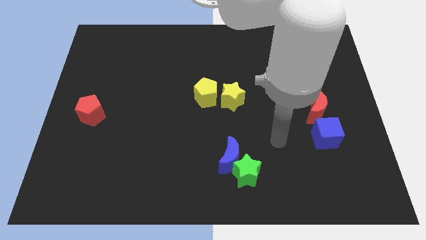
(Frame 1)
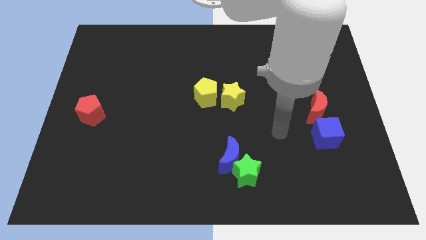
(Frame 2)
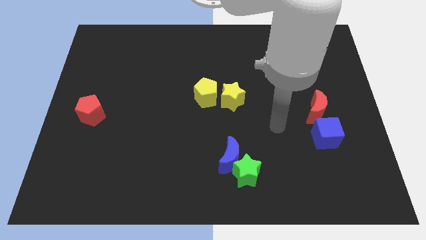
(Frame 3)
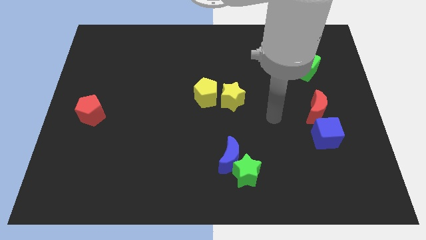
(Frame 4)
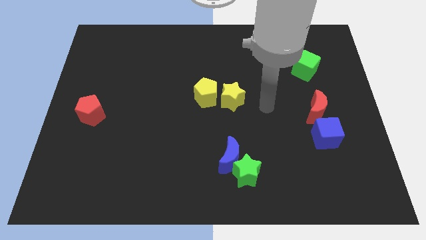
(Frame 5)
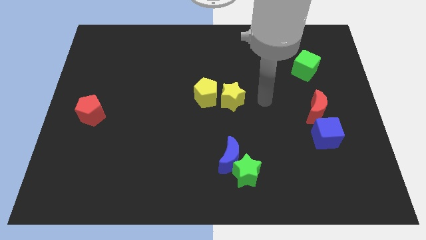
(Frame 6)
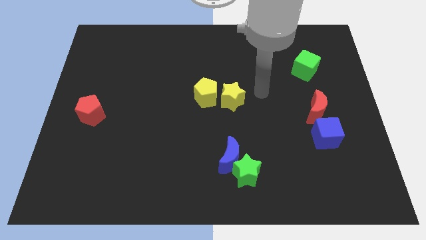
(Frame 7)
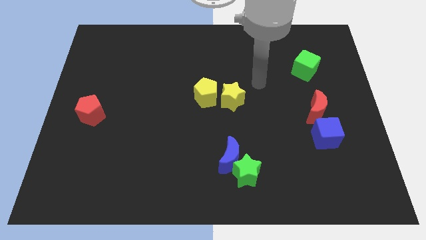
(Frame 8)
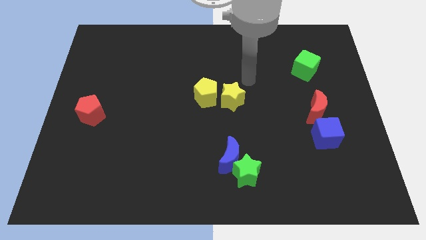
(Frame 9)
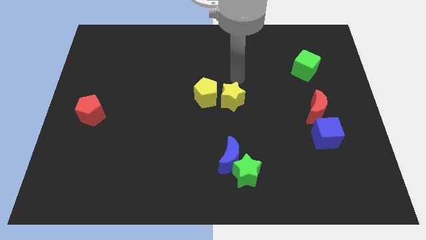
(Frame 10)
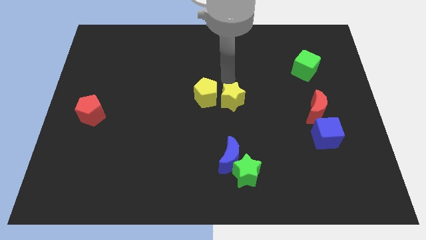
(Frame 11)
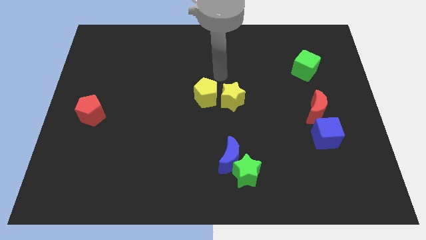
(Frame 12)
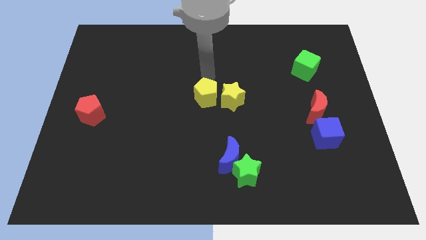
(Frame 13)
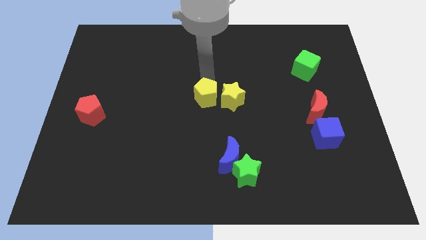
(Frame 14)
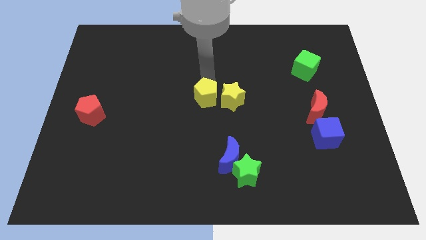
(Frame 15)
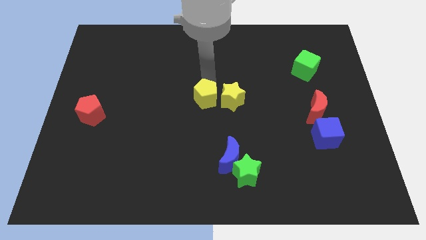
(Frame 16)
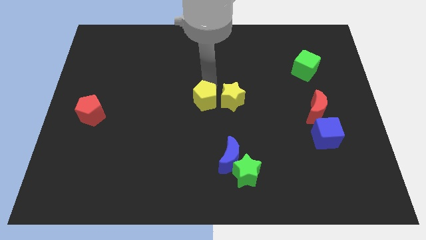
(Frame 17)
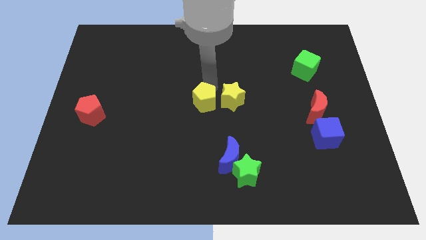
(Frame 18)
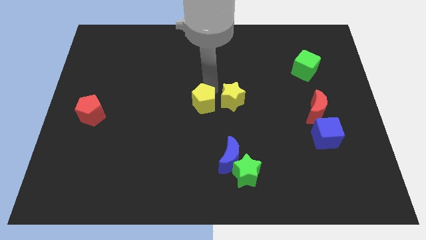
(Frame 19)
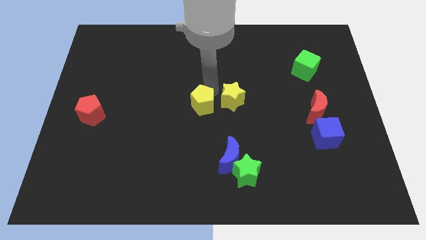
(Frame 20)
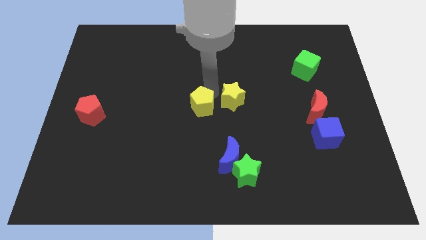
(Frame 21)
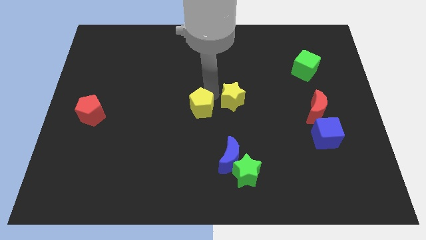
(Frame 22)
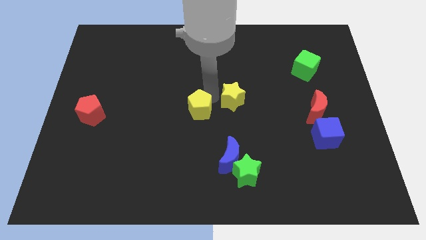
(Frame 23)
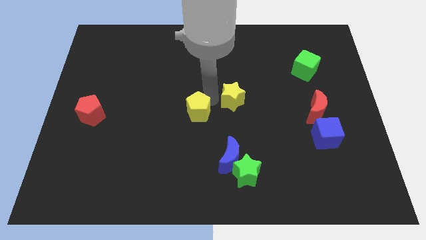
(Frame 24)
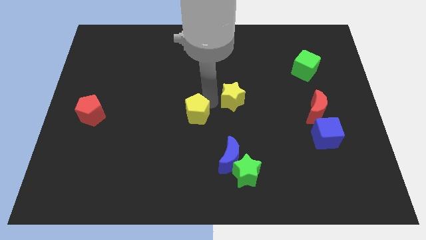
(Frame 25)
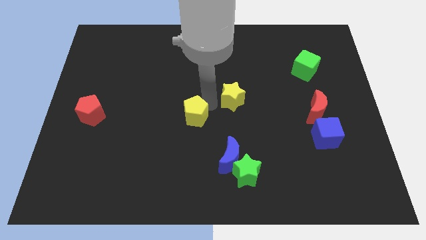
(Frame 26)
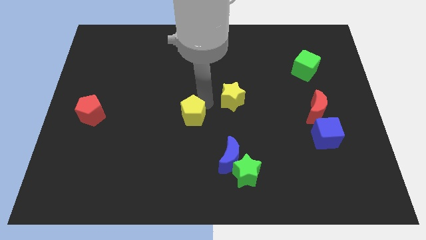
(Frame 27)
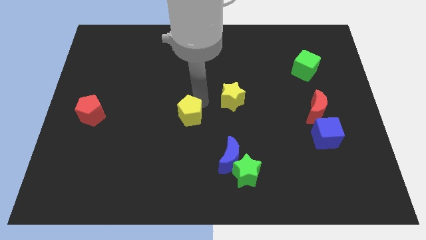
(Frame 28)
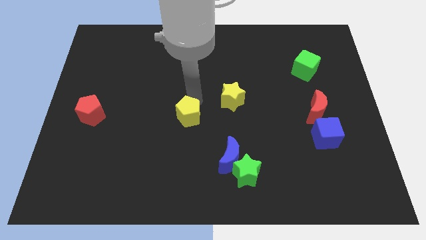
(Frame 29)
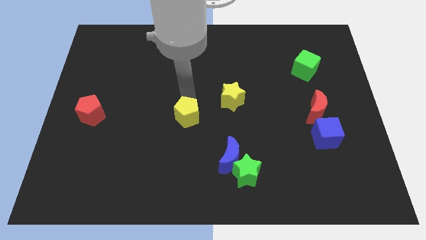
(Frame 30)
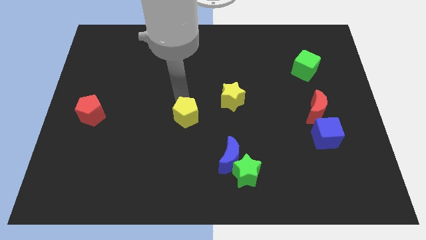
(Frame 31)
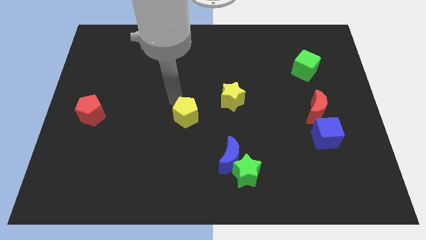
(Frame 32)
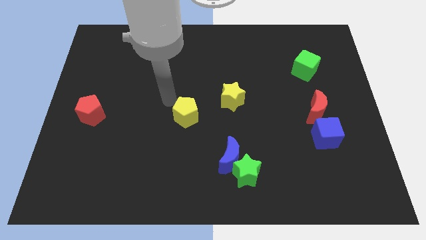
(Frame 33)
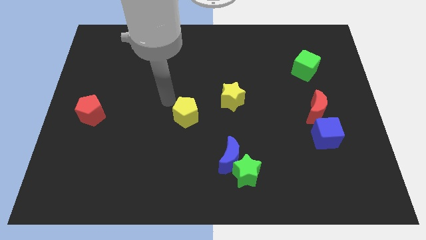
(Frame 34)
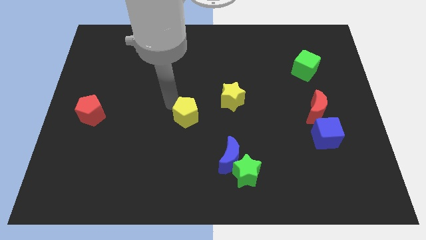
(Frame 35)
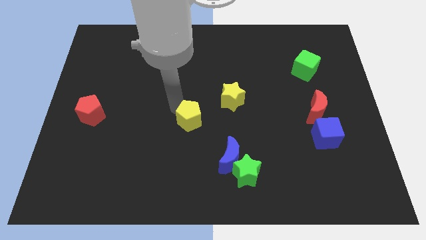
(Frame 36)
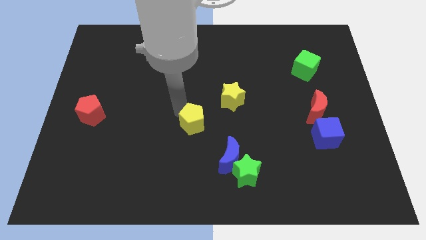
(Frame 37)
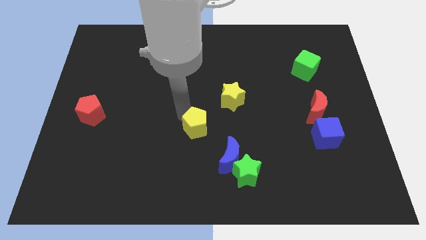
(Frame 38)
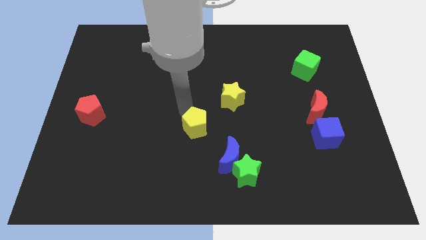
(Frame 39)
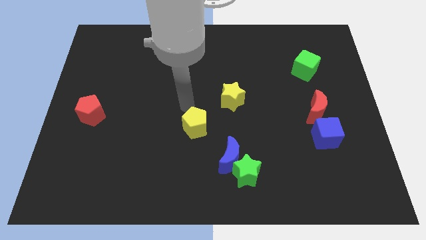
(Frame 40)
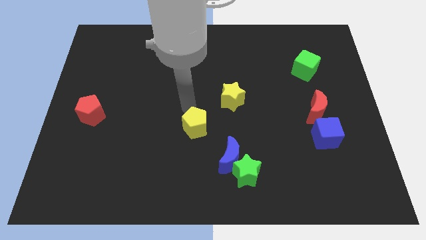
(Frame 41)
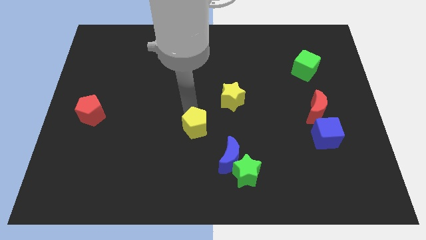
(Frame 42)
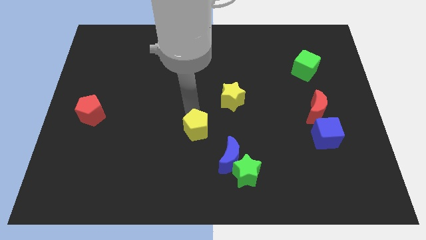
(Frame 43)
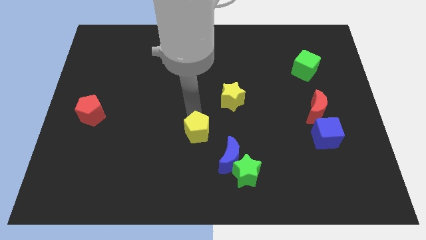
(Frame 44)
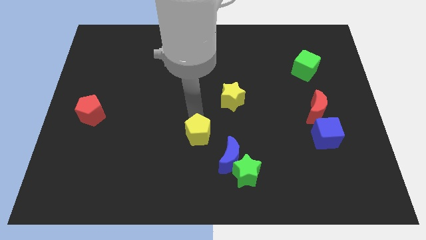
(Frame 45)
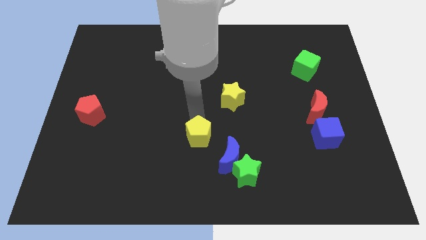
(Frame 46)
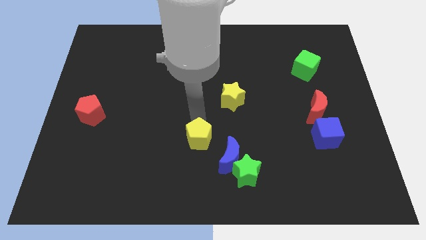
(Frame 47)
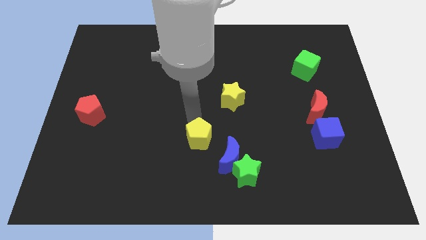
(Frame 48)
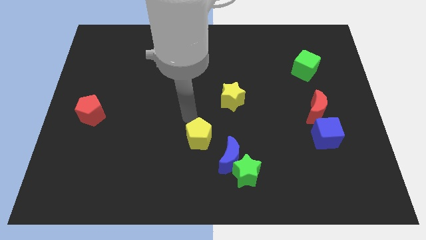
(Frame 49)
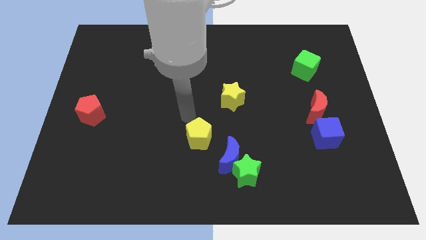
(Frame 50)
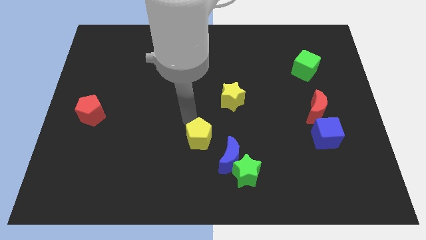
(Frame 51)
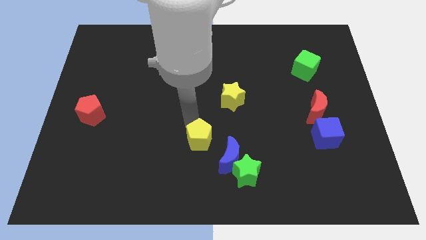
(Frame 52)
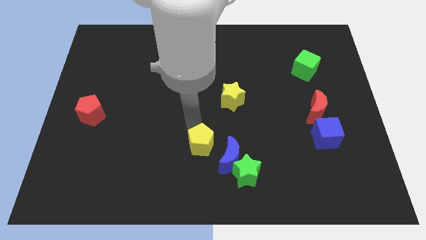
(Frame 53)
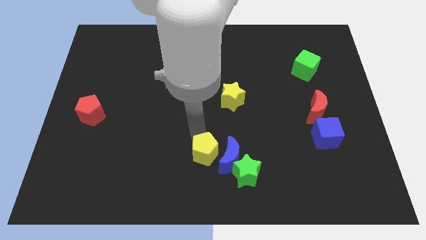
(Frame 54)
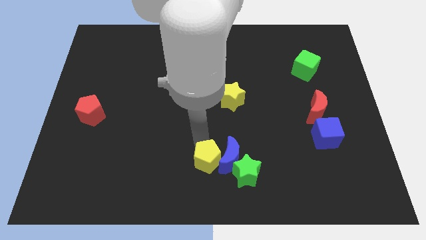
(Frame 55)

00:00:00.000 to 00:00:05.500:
slide the yellow pentagon to the bottom

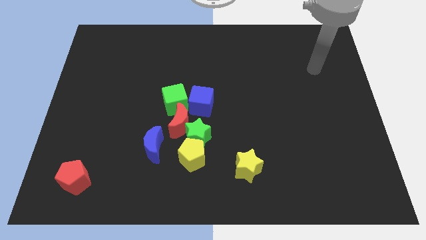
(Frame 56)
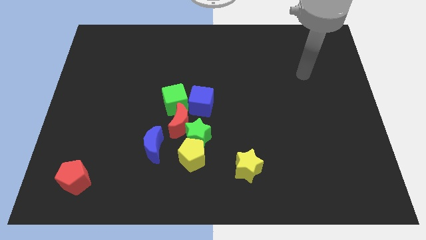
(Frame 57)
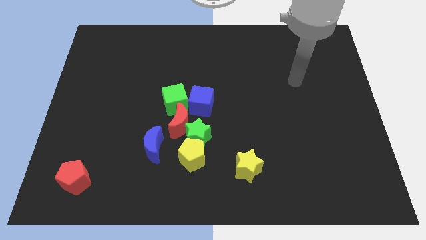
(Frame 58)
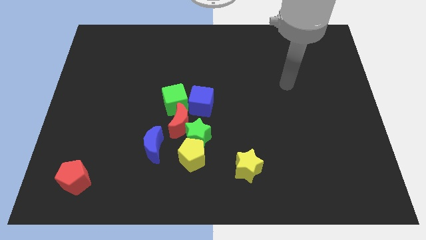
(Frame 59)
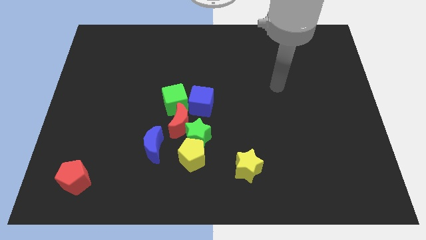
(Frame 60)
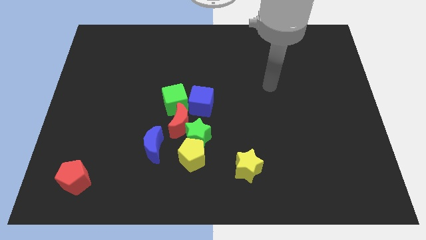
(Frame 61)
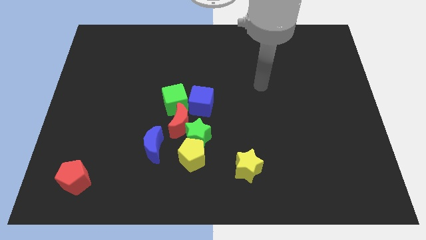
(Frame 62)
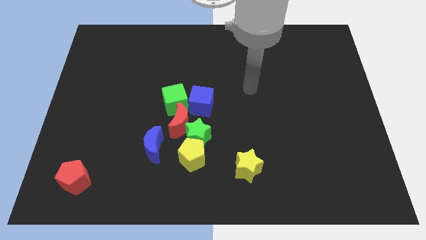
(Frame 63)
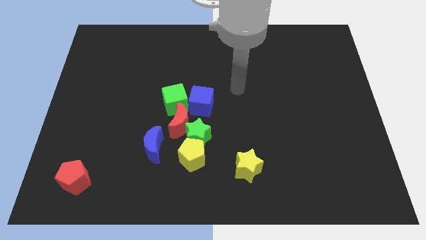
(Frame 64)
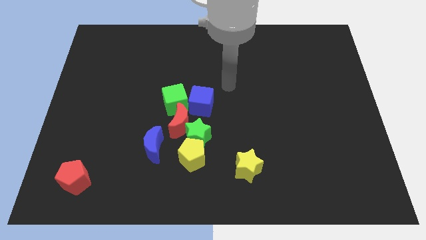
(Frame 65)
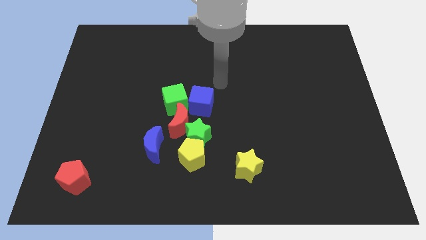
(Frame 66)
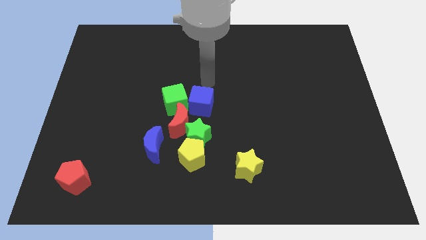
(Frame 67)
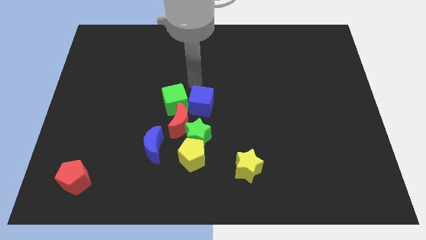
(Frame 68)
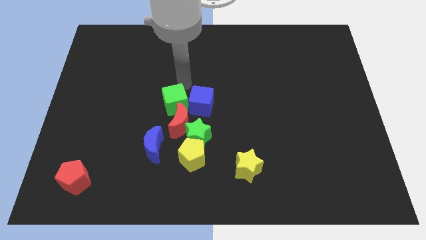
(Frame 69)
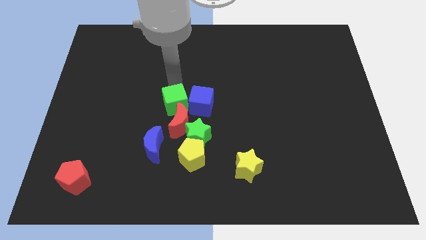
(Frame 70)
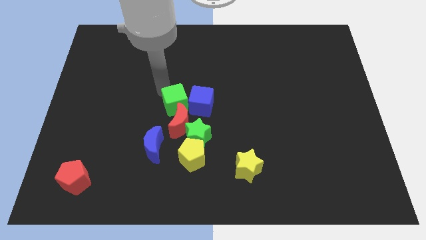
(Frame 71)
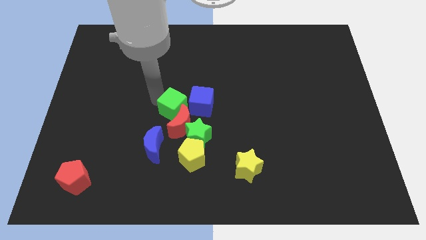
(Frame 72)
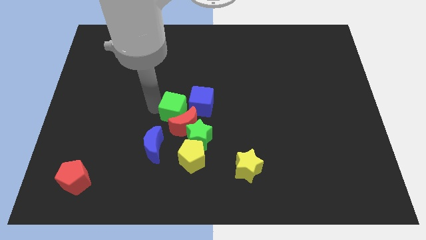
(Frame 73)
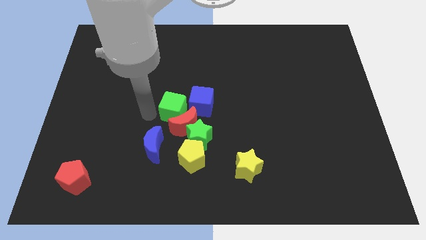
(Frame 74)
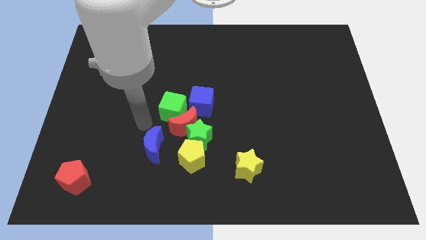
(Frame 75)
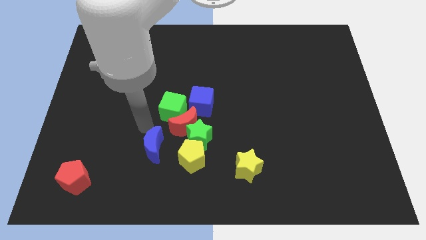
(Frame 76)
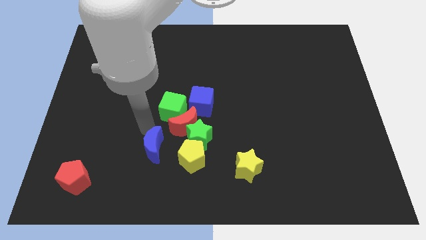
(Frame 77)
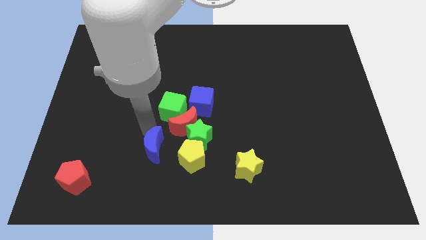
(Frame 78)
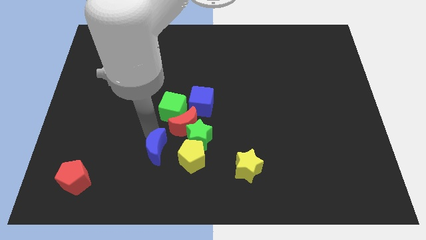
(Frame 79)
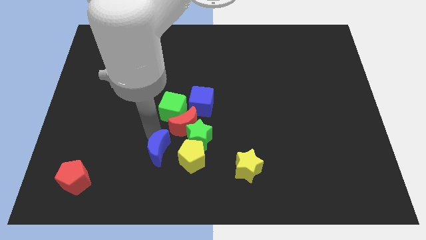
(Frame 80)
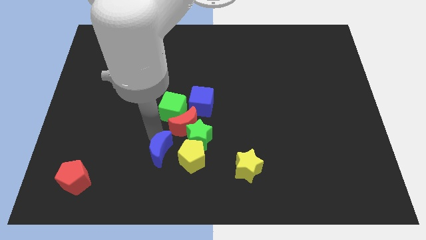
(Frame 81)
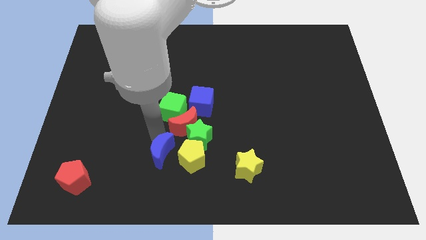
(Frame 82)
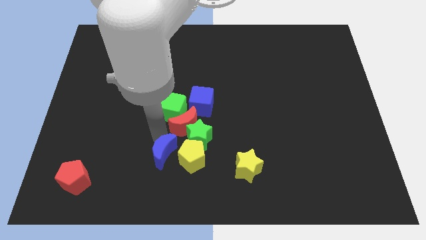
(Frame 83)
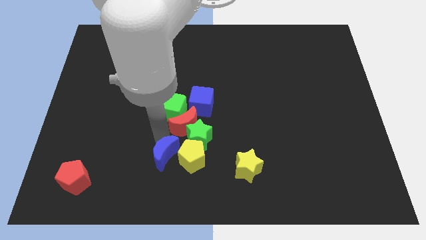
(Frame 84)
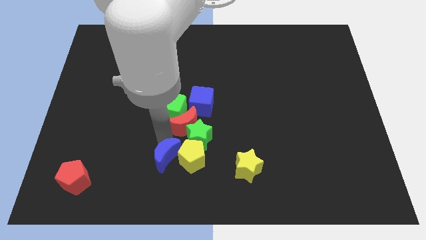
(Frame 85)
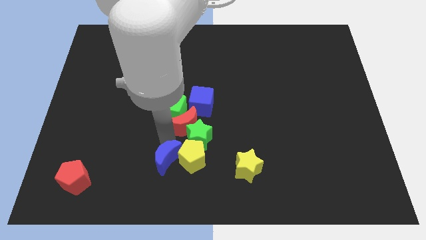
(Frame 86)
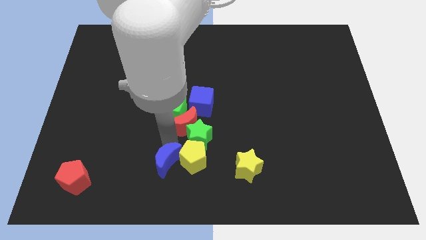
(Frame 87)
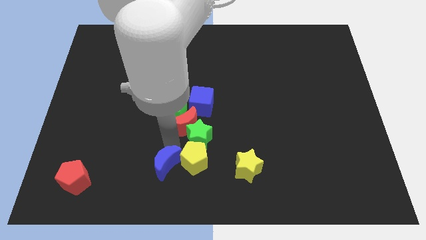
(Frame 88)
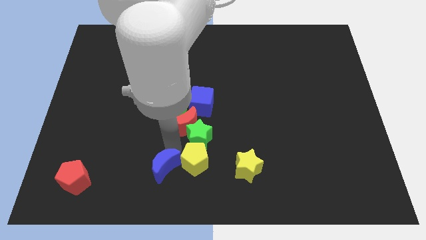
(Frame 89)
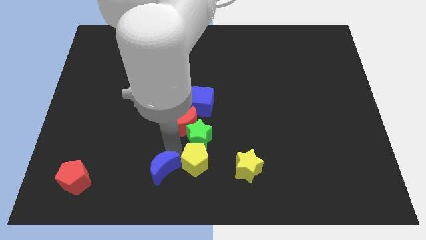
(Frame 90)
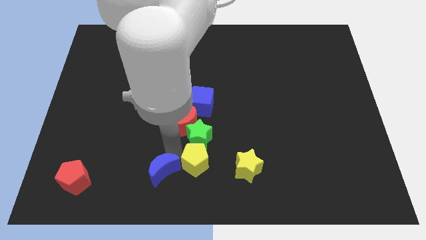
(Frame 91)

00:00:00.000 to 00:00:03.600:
put the blue moon to the bottom
